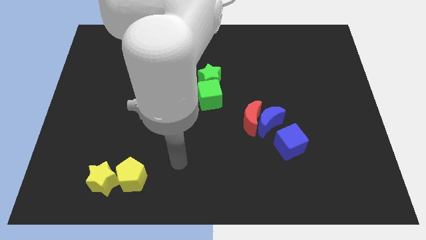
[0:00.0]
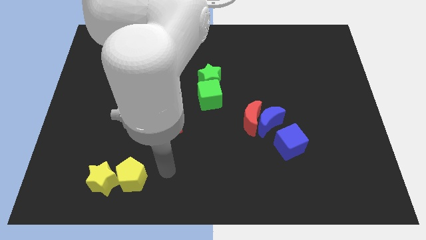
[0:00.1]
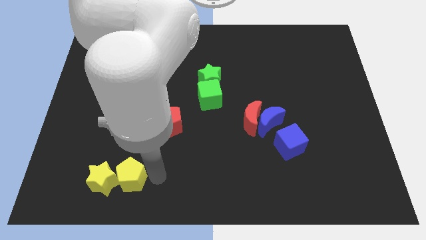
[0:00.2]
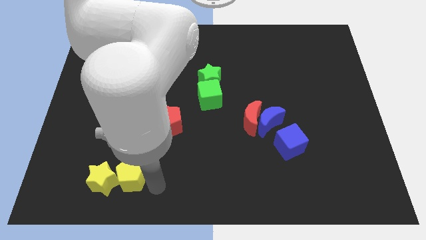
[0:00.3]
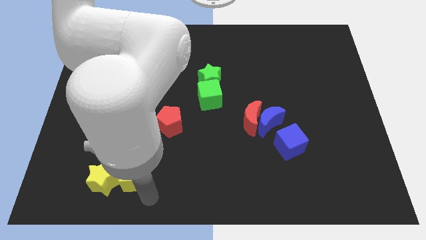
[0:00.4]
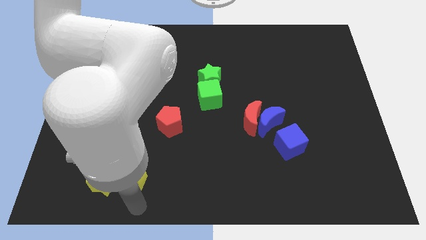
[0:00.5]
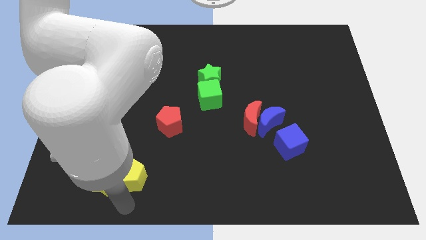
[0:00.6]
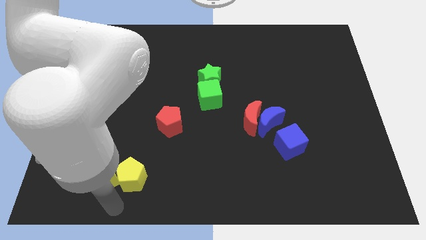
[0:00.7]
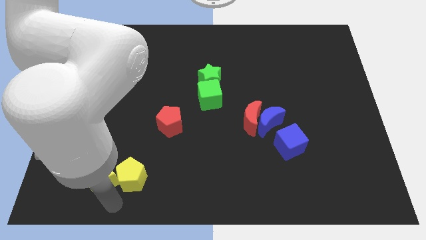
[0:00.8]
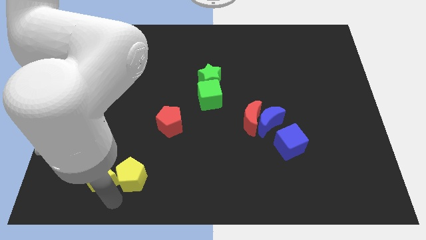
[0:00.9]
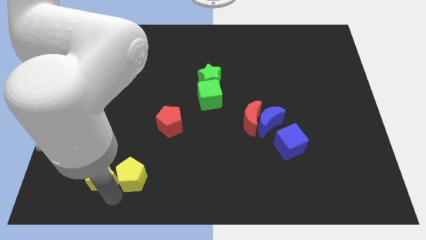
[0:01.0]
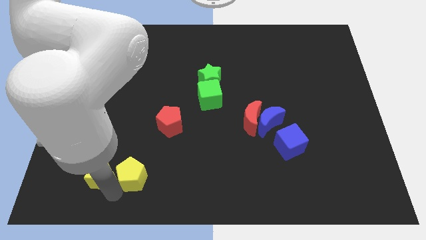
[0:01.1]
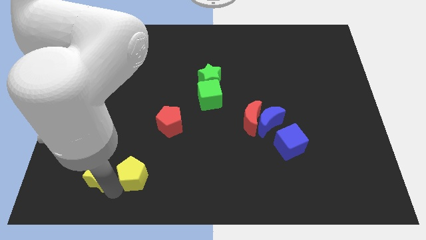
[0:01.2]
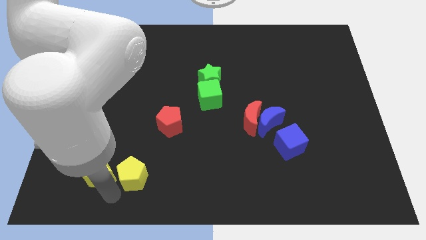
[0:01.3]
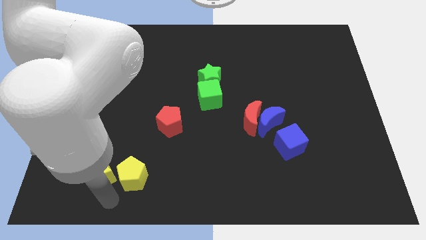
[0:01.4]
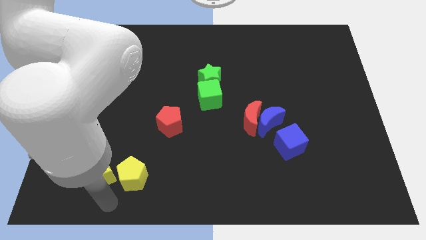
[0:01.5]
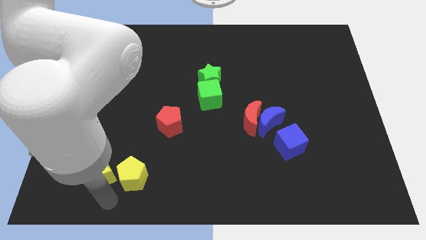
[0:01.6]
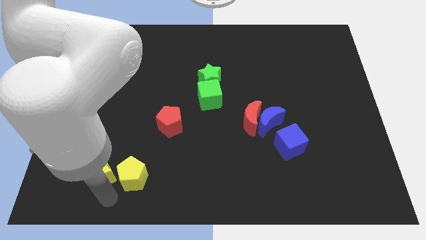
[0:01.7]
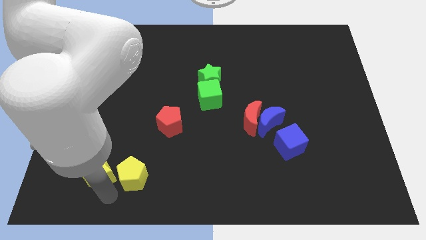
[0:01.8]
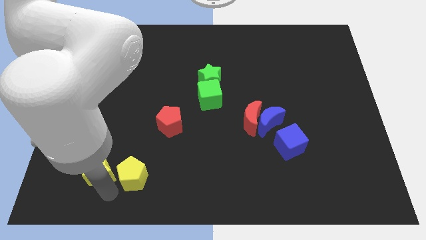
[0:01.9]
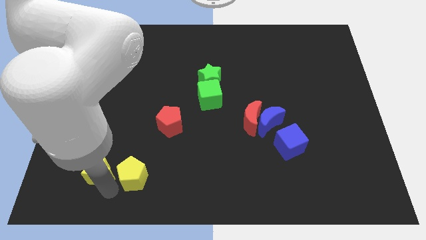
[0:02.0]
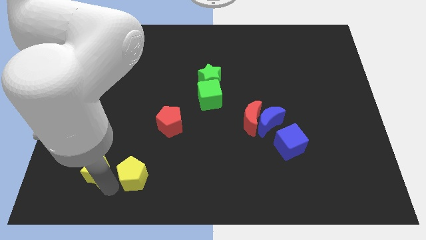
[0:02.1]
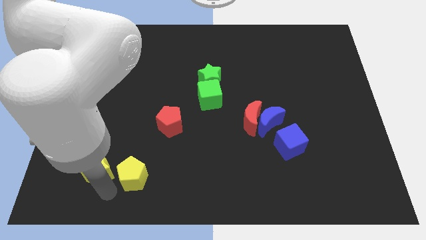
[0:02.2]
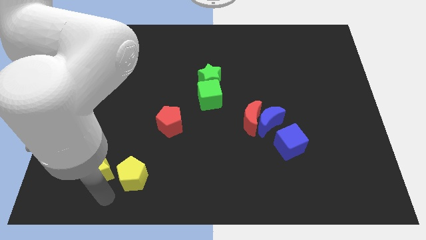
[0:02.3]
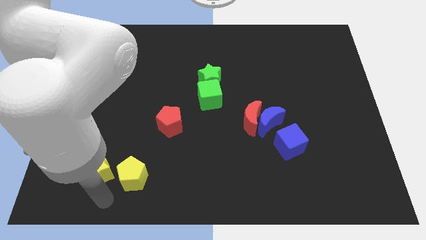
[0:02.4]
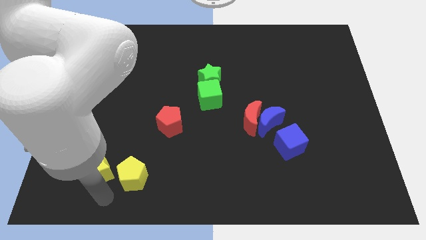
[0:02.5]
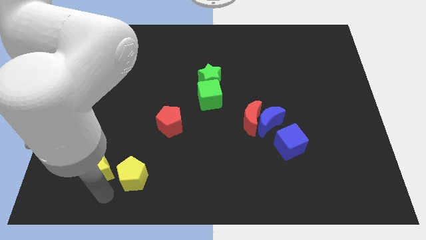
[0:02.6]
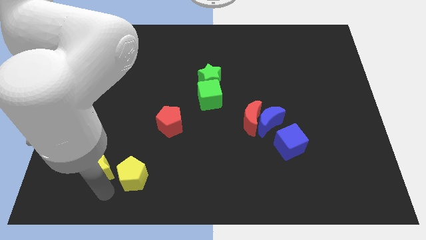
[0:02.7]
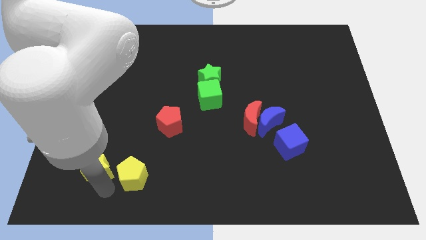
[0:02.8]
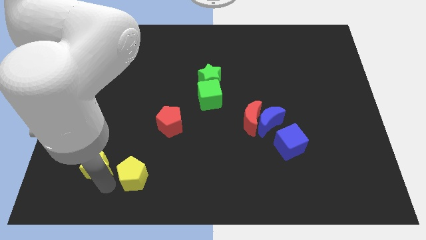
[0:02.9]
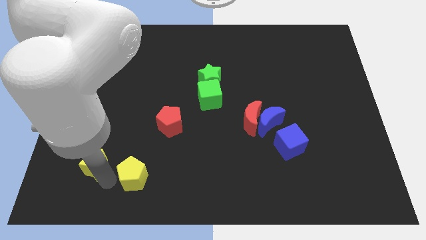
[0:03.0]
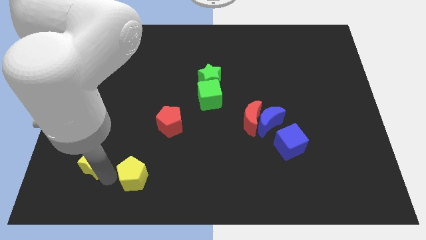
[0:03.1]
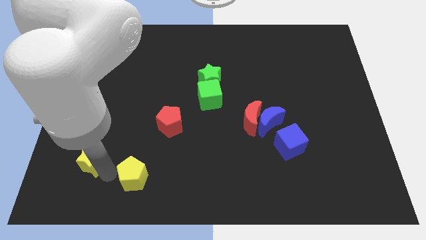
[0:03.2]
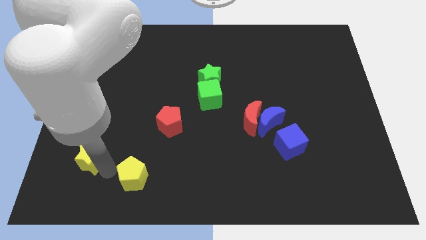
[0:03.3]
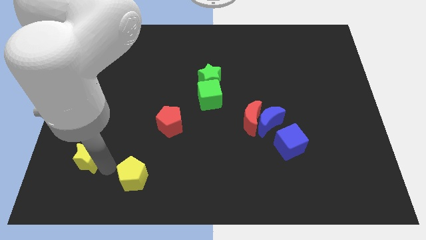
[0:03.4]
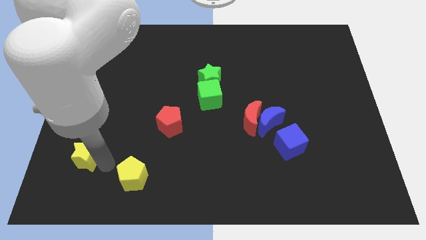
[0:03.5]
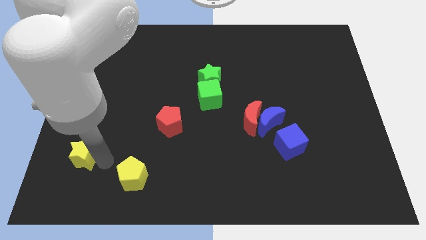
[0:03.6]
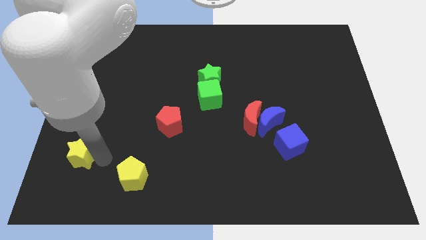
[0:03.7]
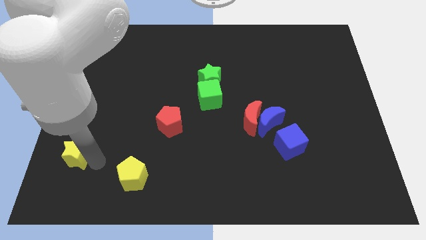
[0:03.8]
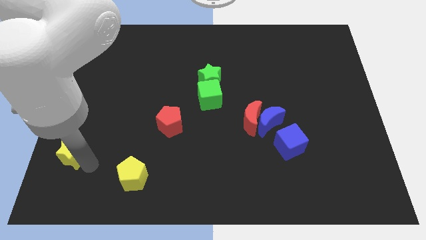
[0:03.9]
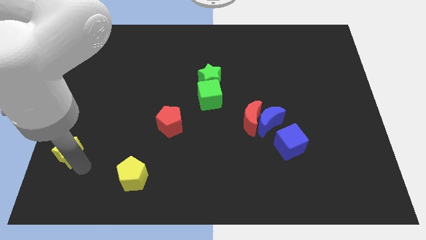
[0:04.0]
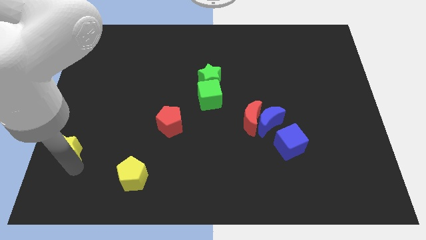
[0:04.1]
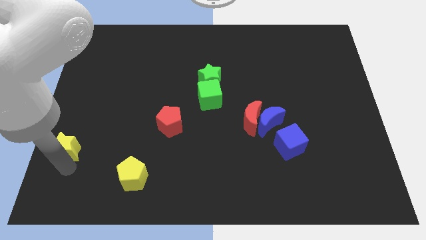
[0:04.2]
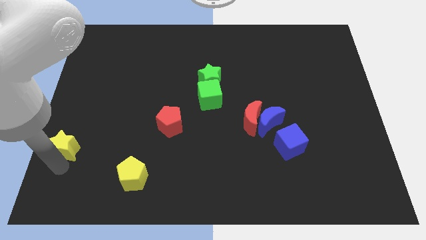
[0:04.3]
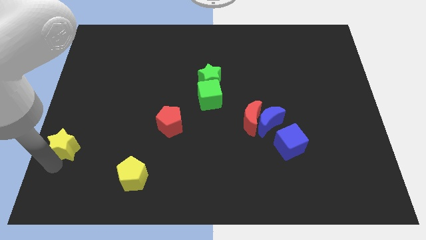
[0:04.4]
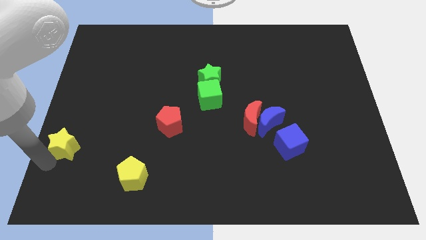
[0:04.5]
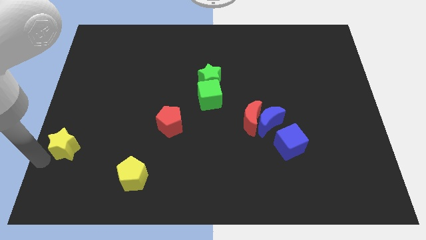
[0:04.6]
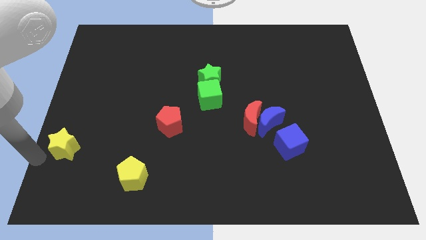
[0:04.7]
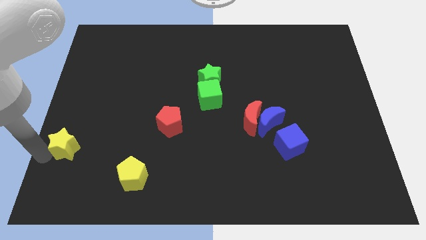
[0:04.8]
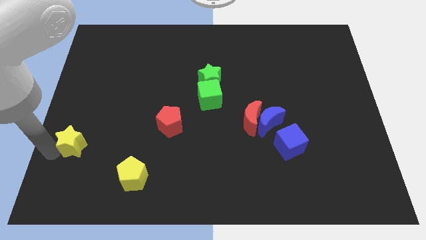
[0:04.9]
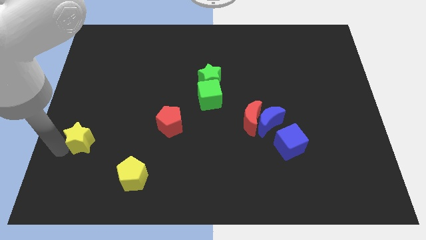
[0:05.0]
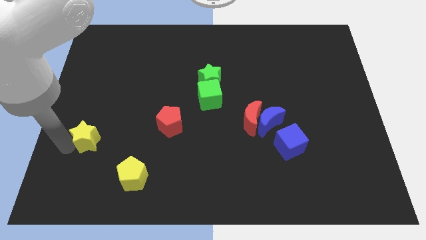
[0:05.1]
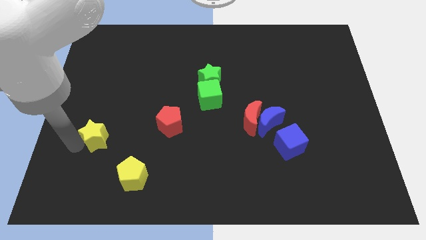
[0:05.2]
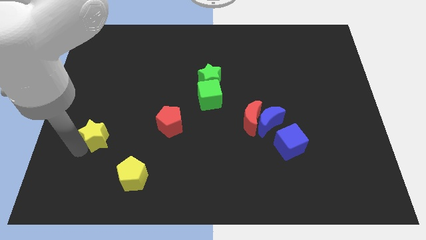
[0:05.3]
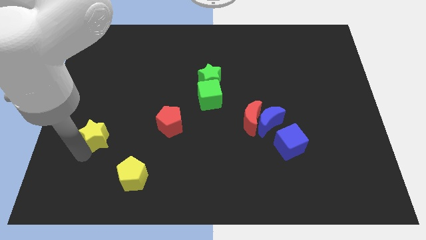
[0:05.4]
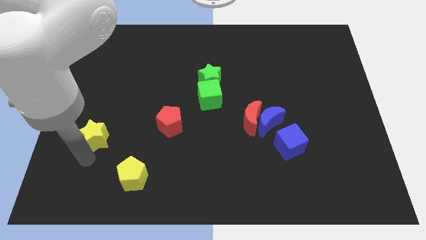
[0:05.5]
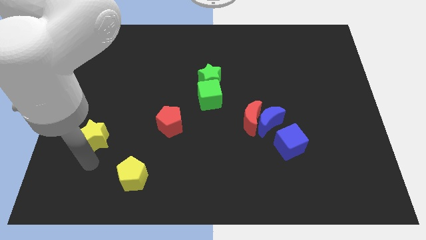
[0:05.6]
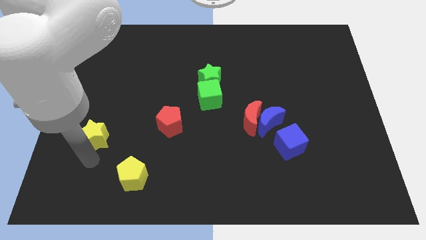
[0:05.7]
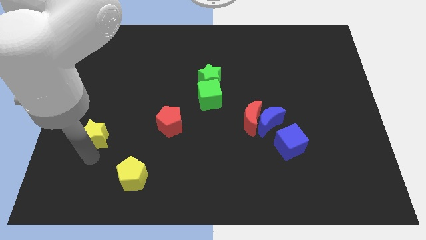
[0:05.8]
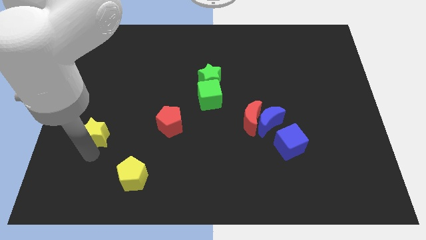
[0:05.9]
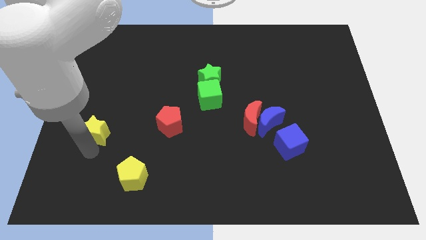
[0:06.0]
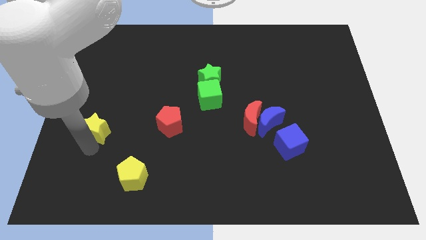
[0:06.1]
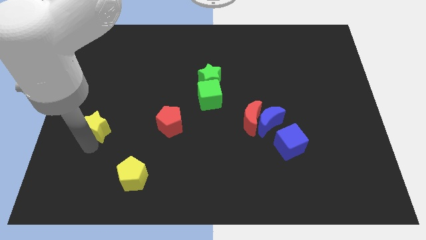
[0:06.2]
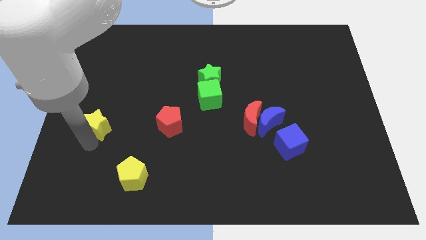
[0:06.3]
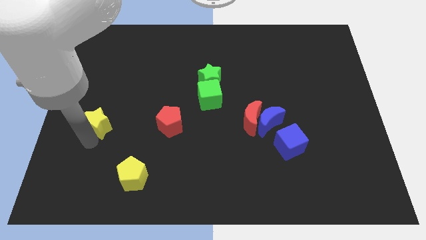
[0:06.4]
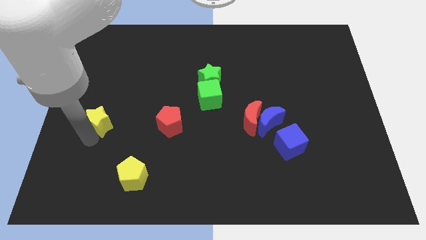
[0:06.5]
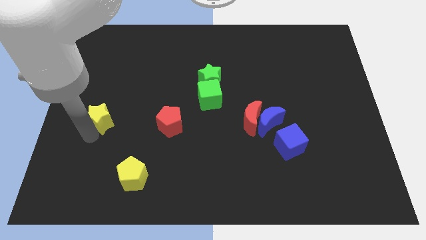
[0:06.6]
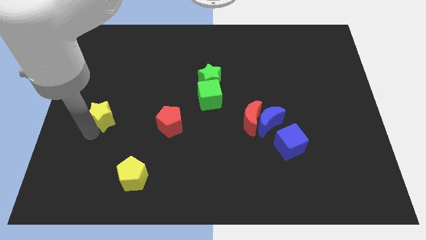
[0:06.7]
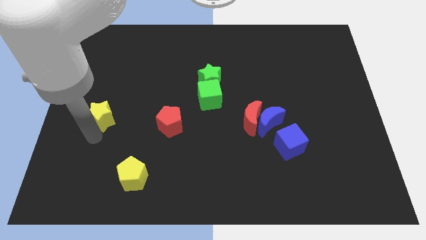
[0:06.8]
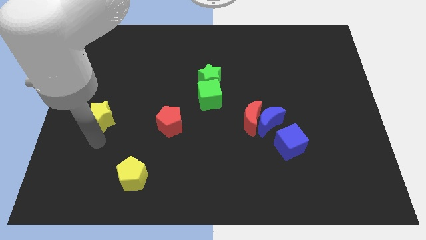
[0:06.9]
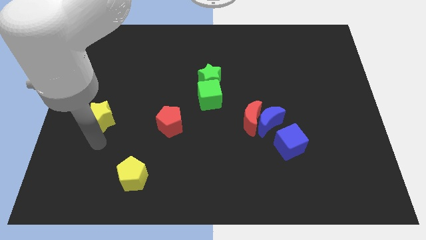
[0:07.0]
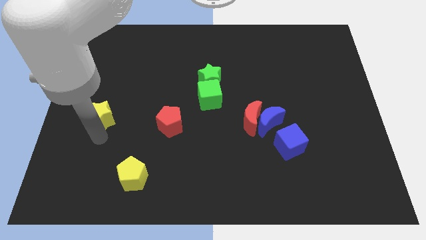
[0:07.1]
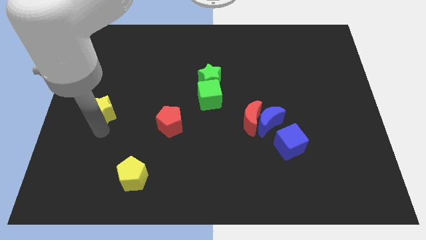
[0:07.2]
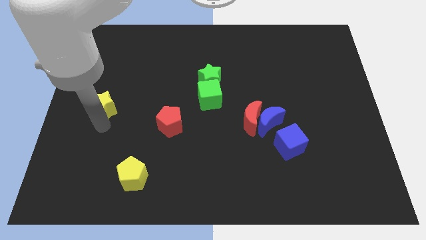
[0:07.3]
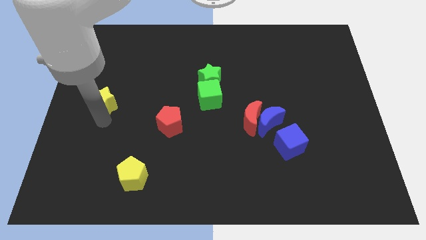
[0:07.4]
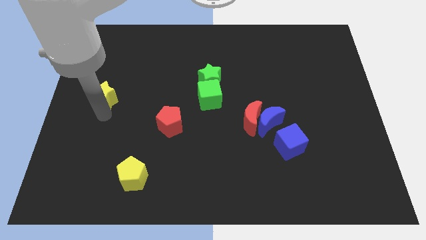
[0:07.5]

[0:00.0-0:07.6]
push the yellow star up

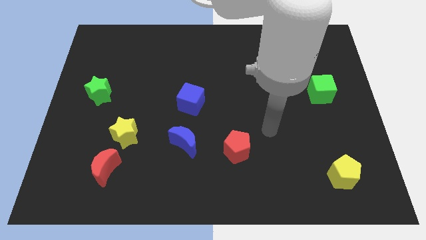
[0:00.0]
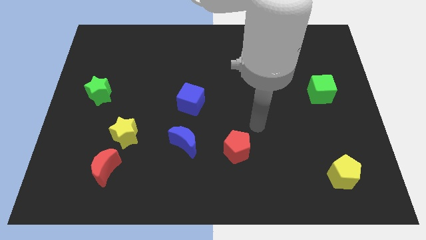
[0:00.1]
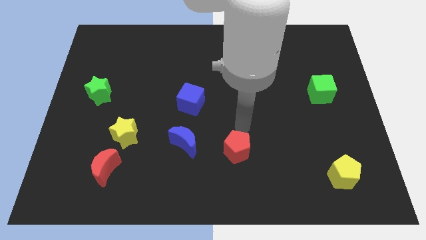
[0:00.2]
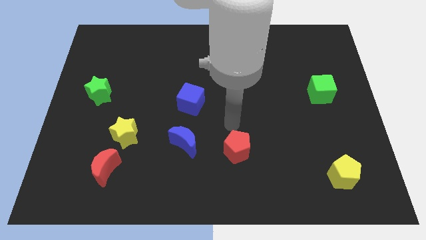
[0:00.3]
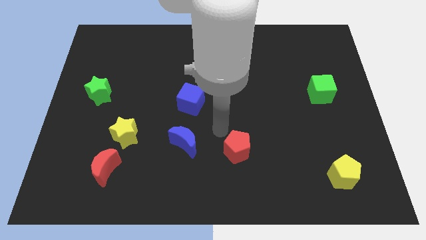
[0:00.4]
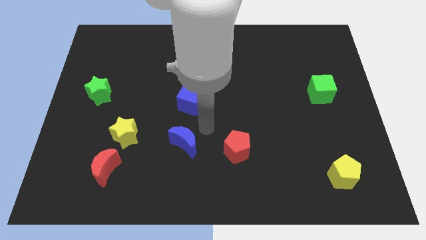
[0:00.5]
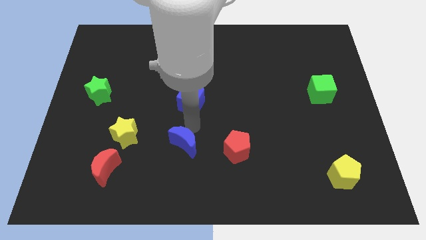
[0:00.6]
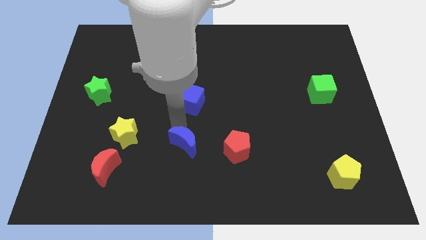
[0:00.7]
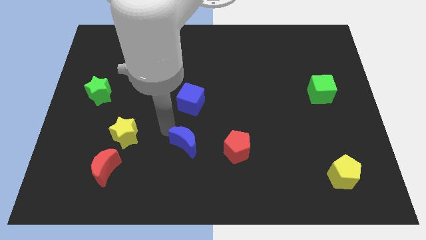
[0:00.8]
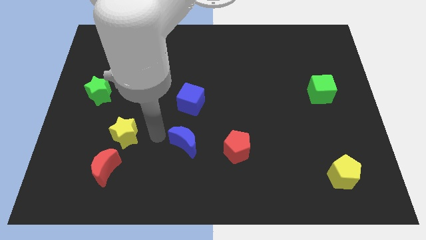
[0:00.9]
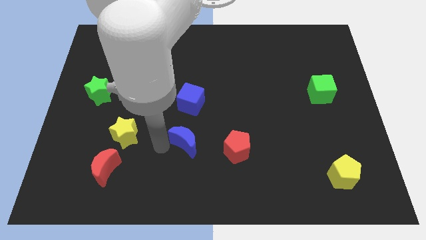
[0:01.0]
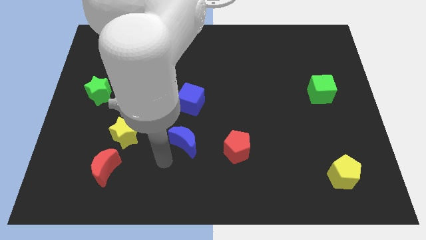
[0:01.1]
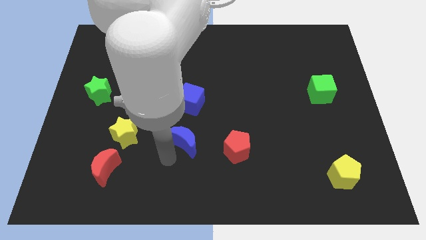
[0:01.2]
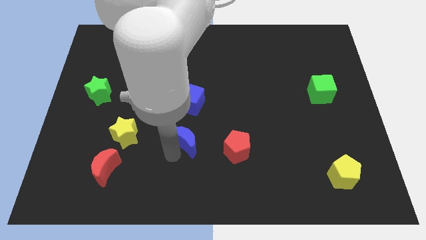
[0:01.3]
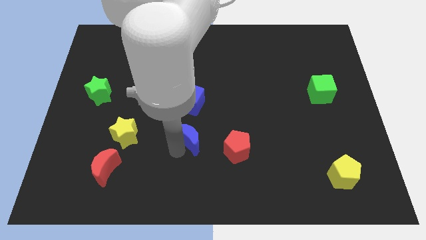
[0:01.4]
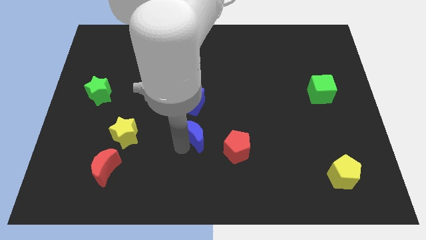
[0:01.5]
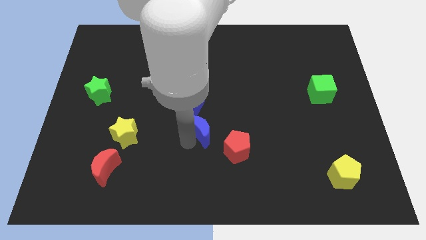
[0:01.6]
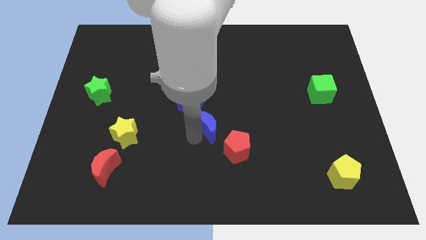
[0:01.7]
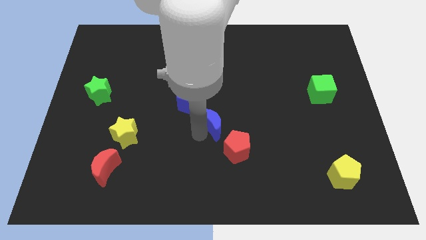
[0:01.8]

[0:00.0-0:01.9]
slightly move the blue moon upwards and to the right
